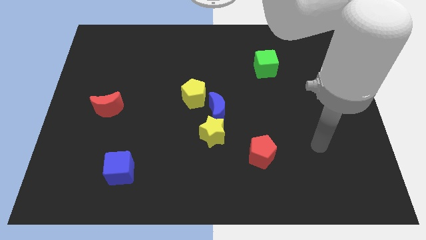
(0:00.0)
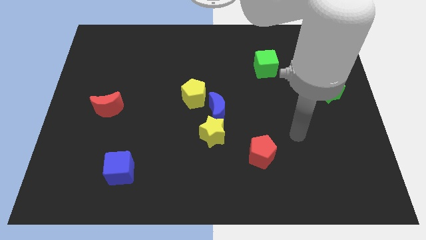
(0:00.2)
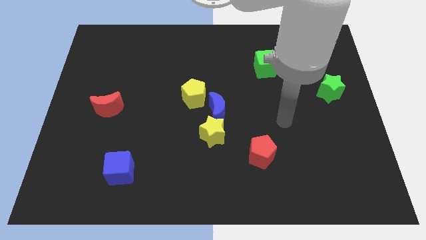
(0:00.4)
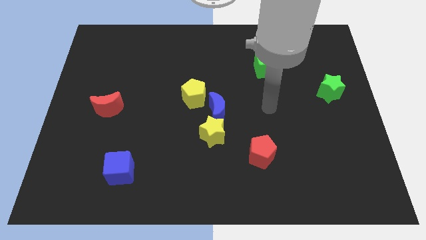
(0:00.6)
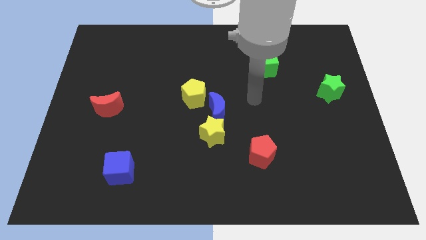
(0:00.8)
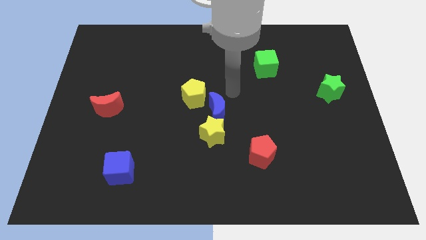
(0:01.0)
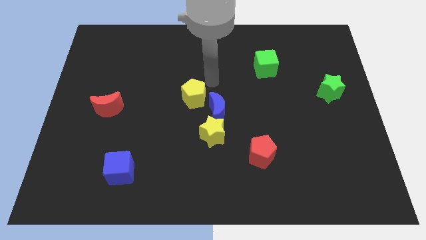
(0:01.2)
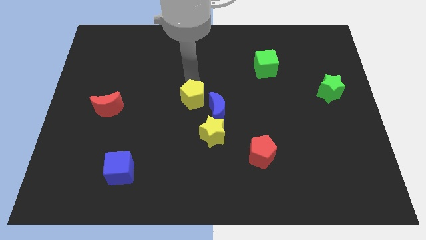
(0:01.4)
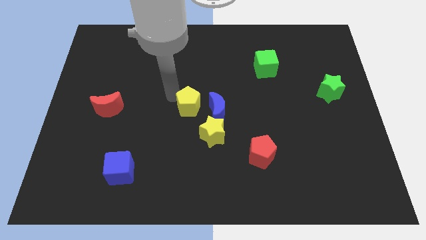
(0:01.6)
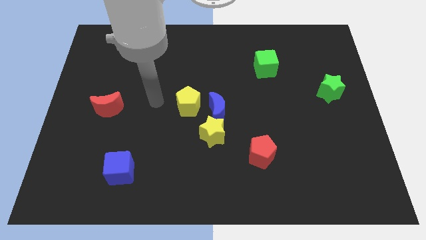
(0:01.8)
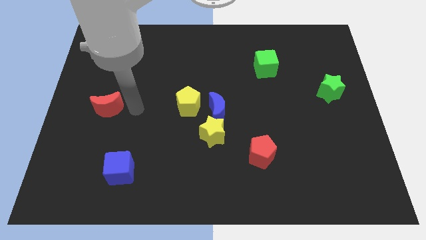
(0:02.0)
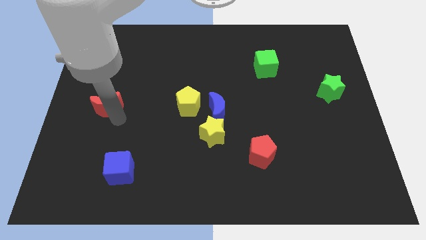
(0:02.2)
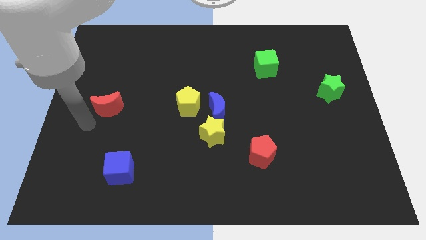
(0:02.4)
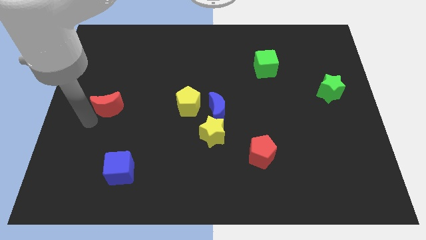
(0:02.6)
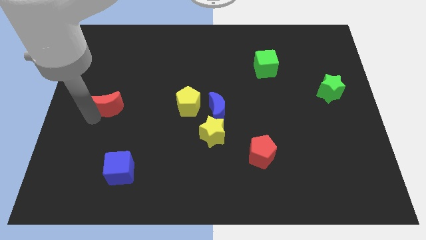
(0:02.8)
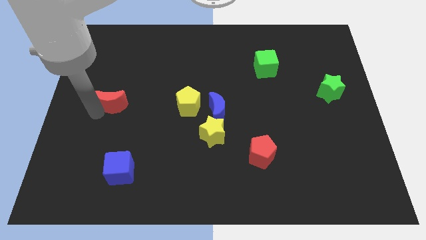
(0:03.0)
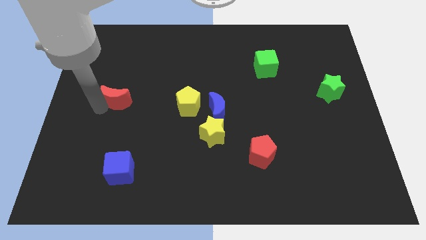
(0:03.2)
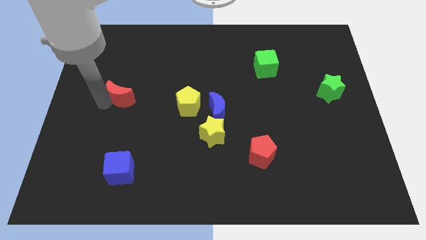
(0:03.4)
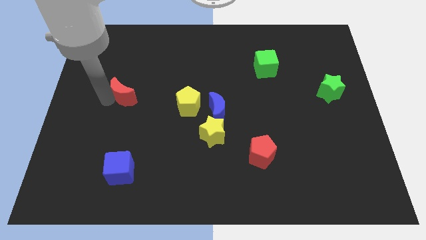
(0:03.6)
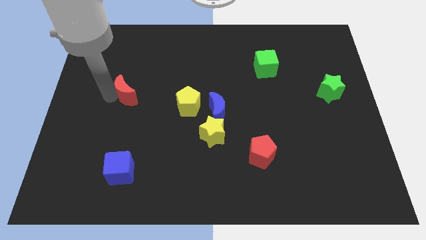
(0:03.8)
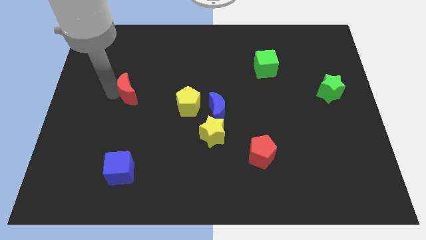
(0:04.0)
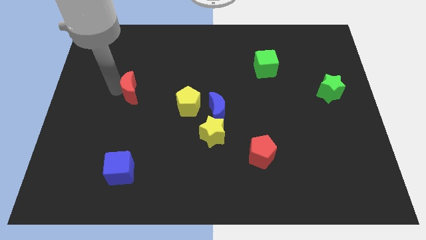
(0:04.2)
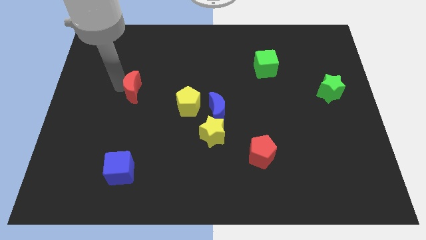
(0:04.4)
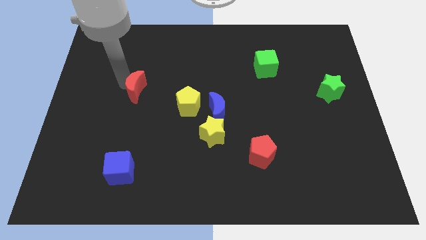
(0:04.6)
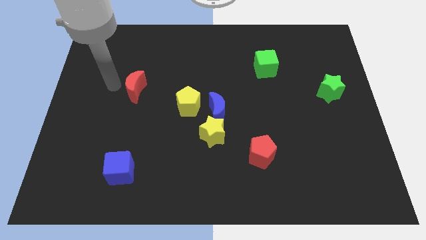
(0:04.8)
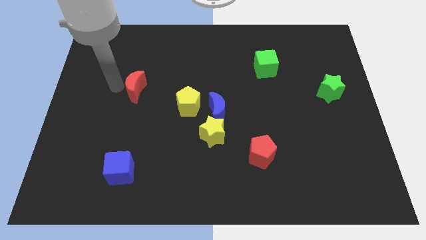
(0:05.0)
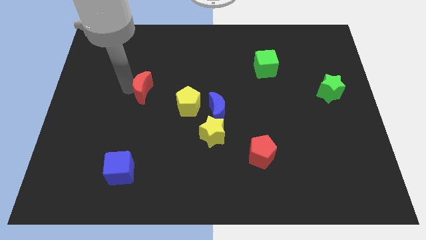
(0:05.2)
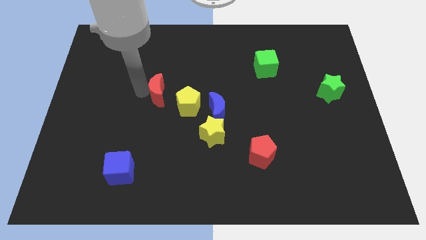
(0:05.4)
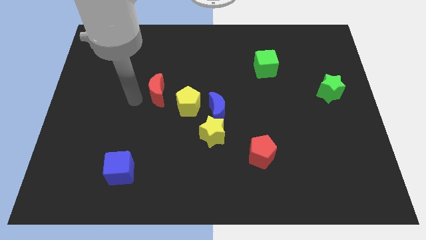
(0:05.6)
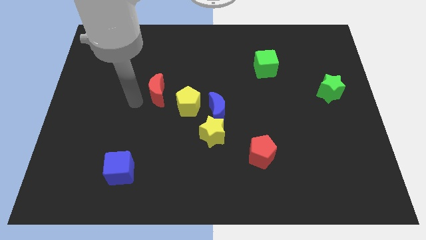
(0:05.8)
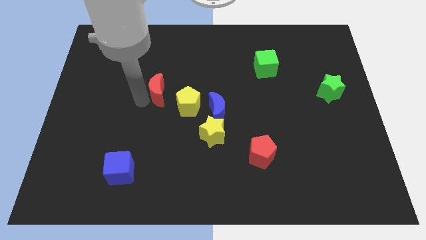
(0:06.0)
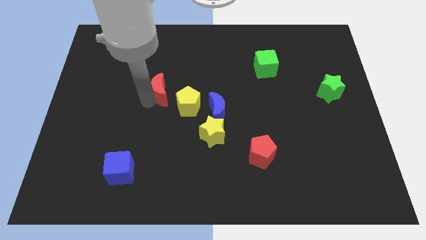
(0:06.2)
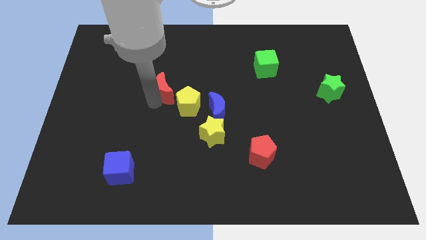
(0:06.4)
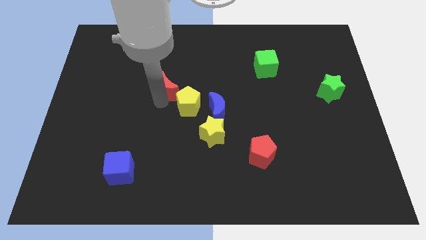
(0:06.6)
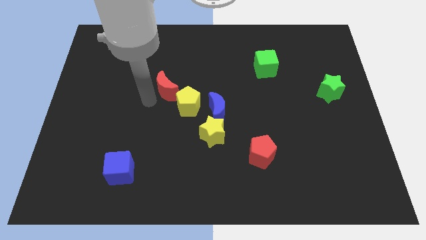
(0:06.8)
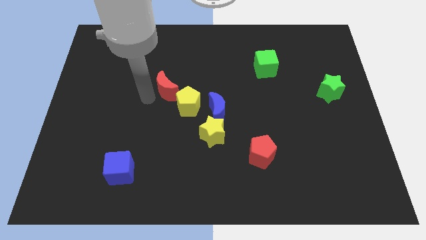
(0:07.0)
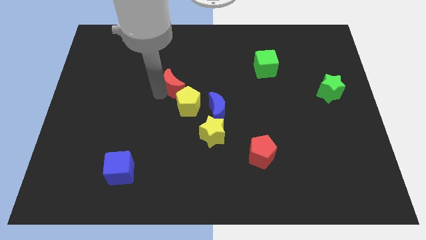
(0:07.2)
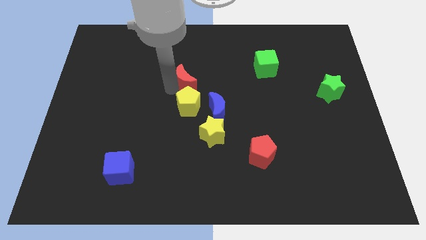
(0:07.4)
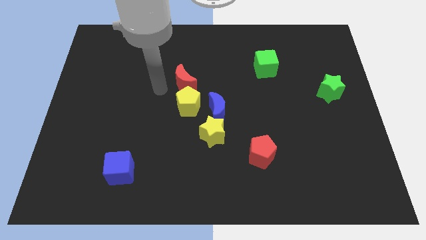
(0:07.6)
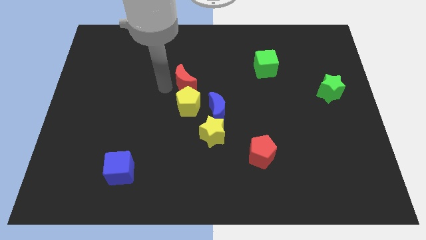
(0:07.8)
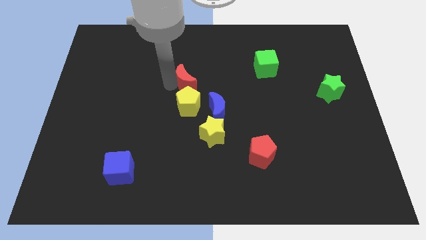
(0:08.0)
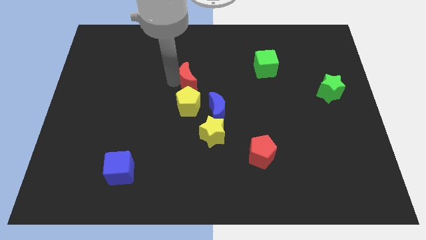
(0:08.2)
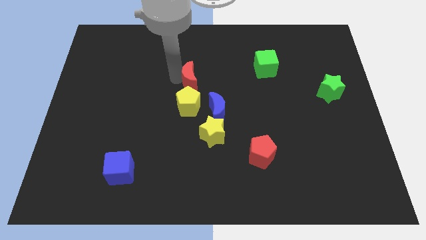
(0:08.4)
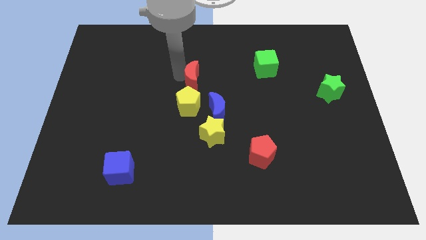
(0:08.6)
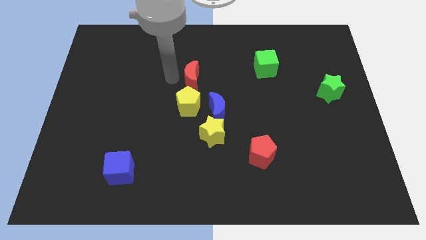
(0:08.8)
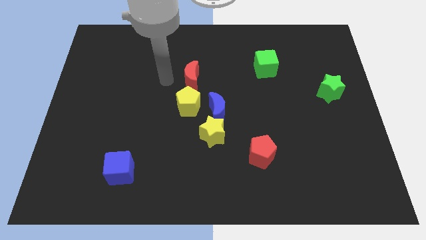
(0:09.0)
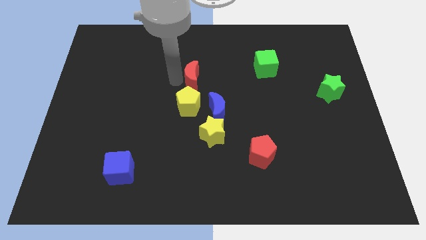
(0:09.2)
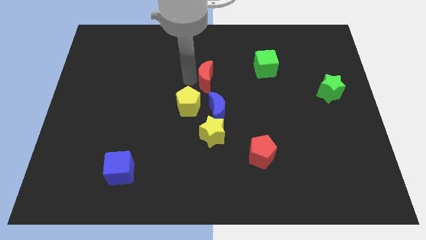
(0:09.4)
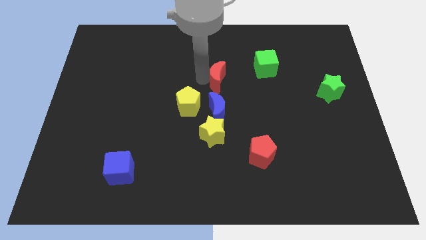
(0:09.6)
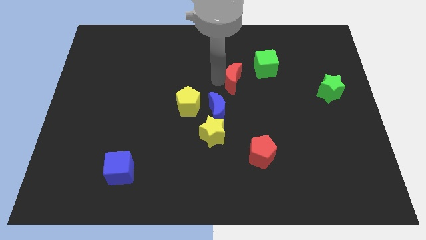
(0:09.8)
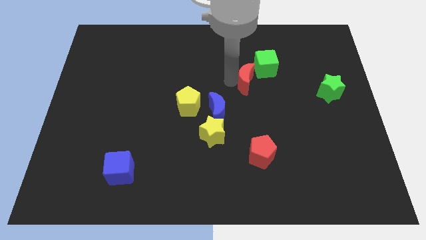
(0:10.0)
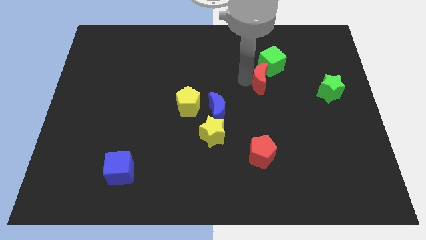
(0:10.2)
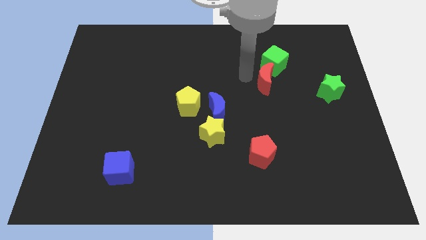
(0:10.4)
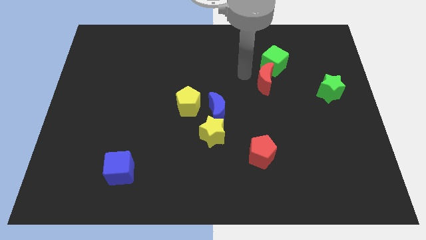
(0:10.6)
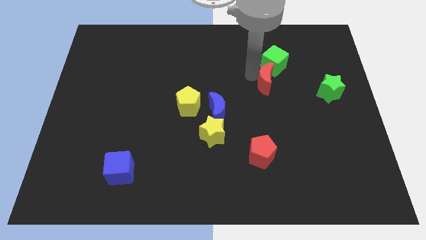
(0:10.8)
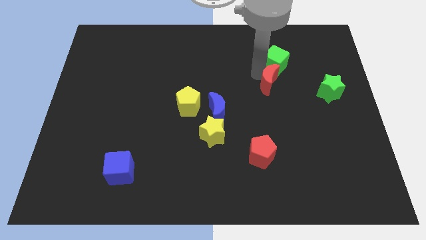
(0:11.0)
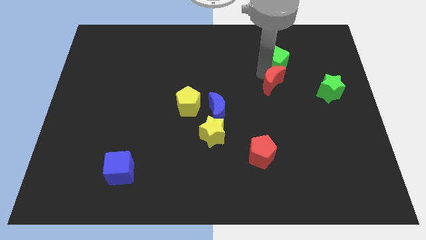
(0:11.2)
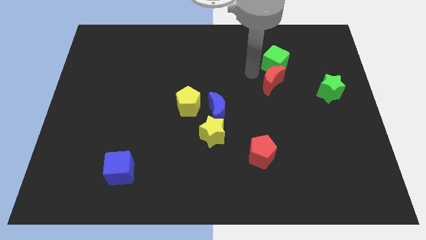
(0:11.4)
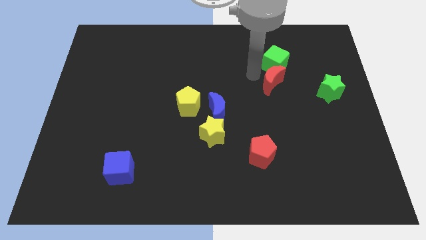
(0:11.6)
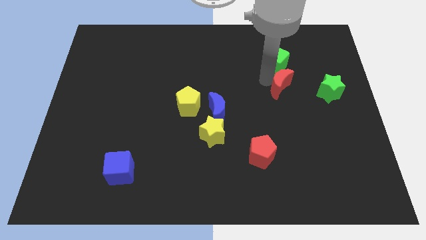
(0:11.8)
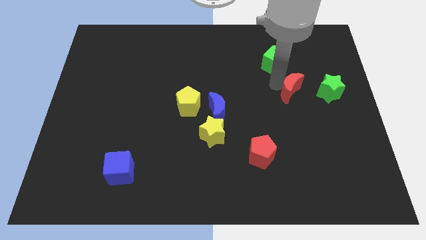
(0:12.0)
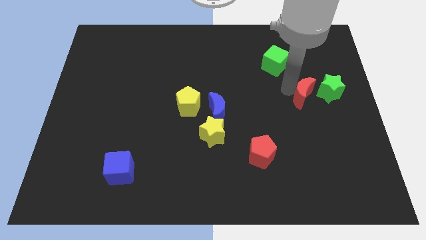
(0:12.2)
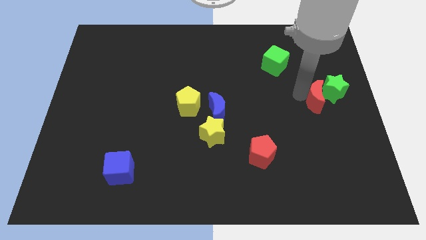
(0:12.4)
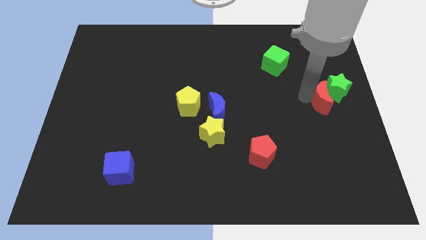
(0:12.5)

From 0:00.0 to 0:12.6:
slide the red moon to the right side
